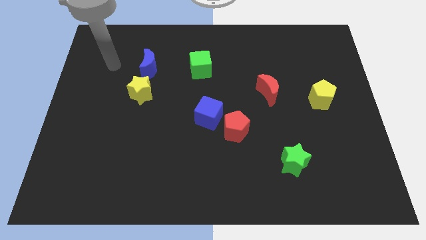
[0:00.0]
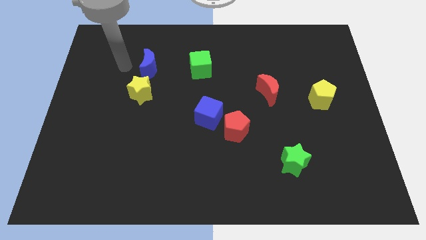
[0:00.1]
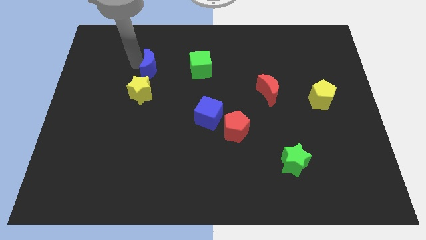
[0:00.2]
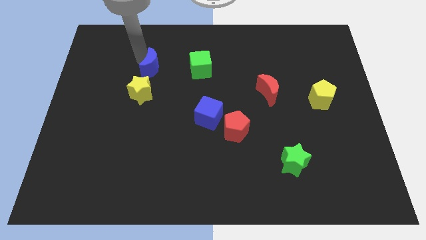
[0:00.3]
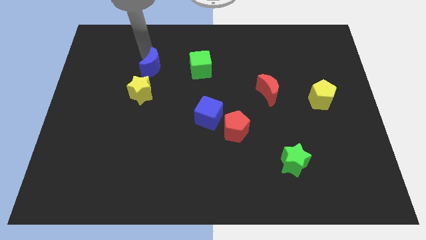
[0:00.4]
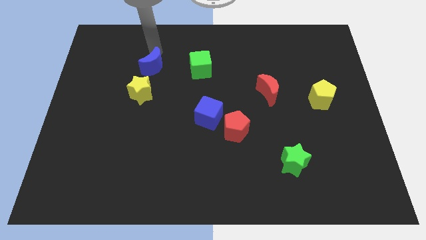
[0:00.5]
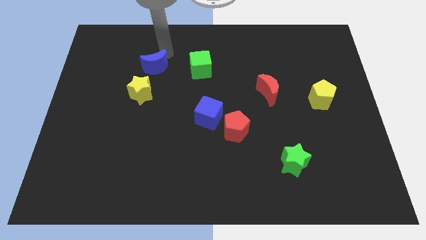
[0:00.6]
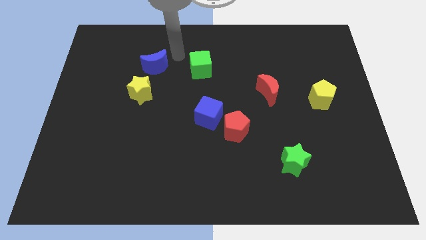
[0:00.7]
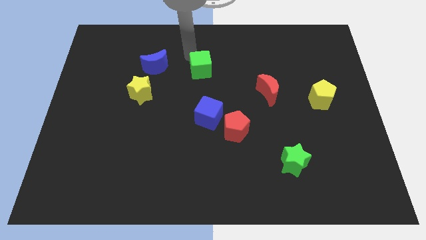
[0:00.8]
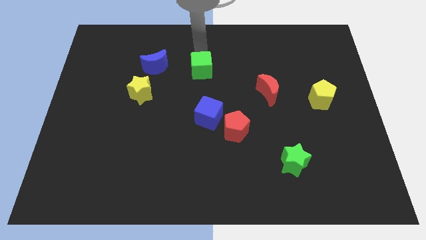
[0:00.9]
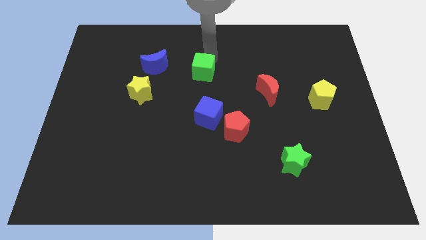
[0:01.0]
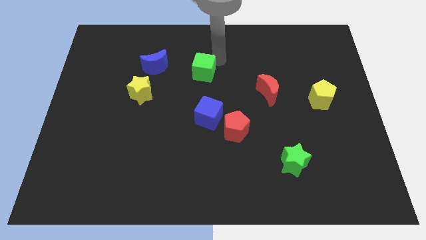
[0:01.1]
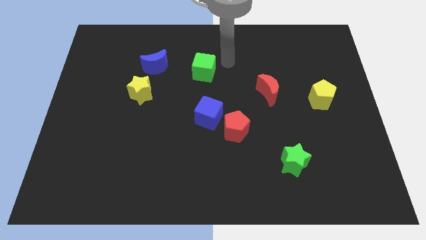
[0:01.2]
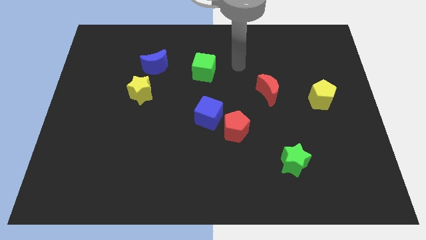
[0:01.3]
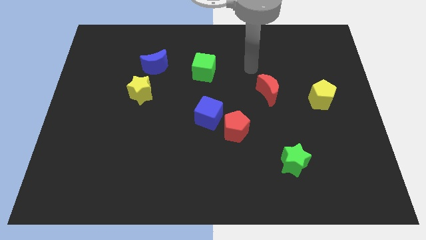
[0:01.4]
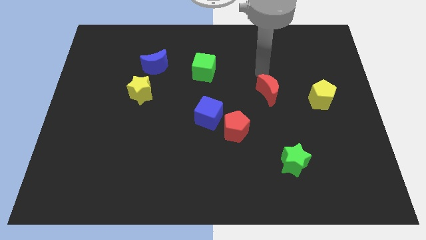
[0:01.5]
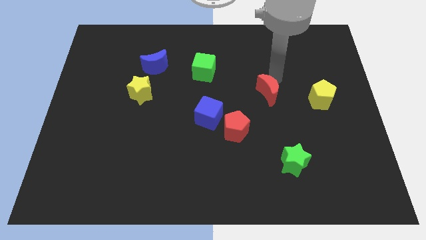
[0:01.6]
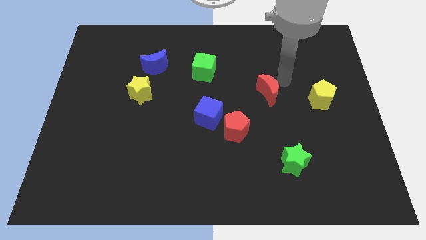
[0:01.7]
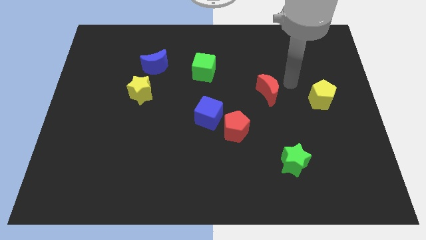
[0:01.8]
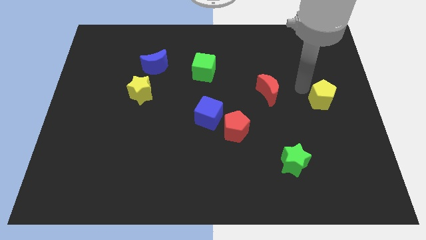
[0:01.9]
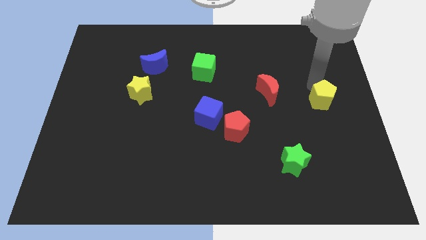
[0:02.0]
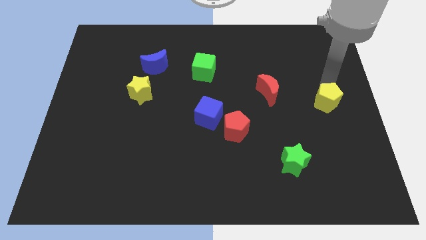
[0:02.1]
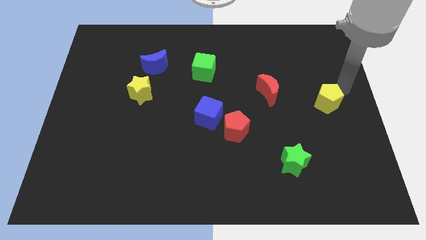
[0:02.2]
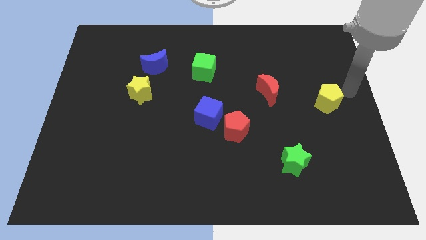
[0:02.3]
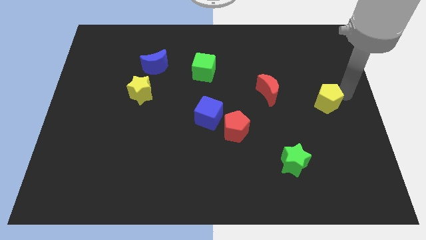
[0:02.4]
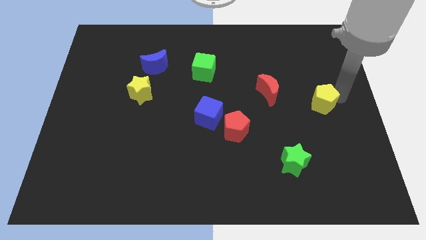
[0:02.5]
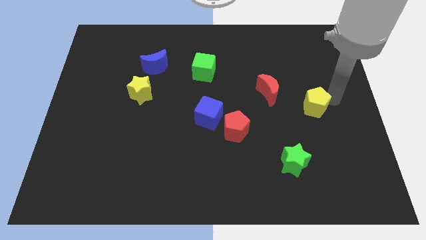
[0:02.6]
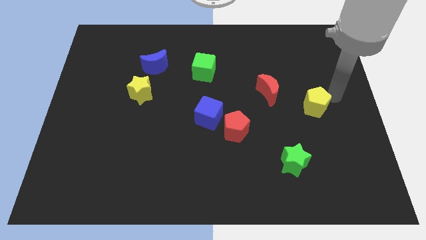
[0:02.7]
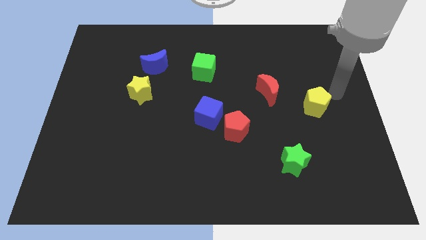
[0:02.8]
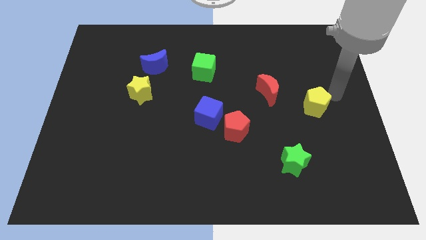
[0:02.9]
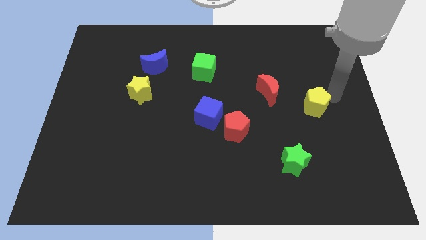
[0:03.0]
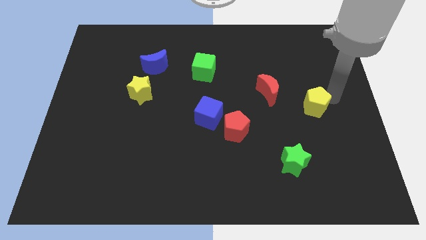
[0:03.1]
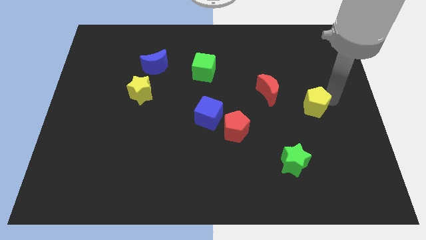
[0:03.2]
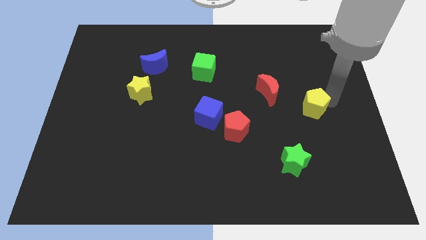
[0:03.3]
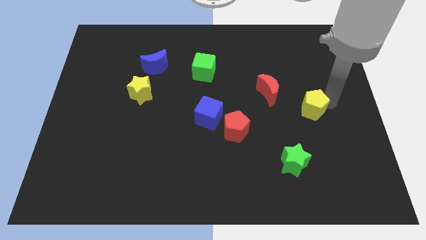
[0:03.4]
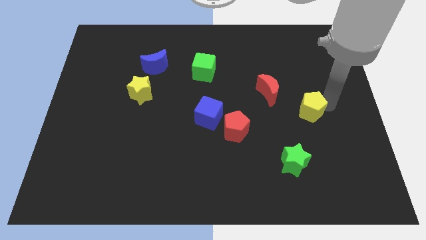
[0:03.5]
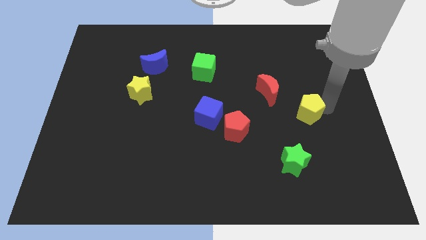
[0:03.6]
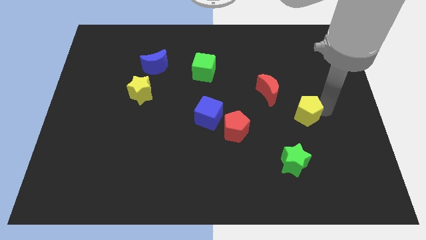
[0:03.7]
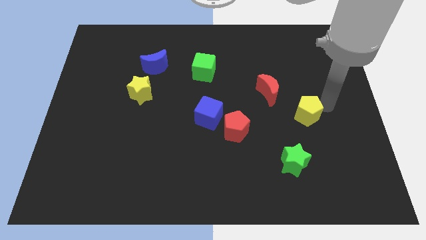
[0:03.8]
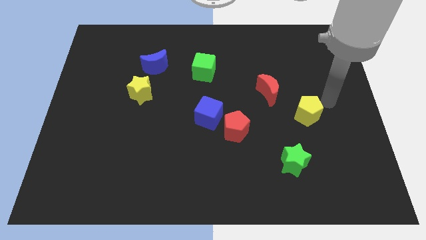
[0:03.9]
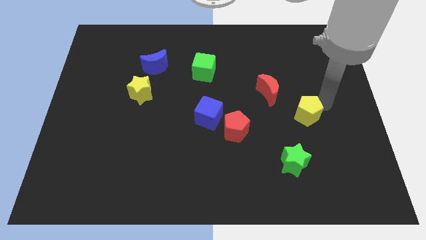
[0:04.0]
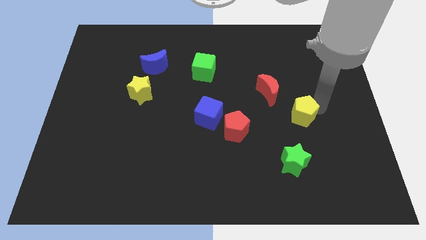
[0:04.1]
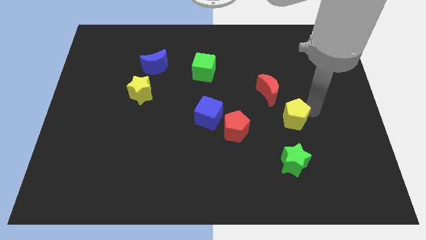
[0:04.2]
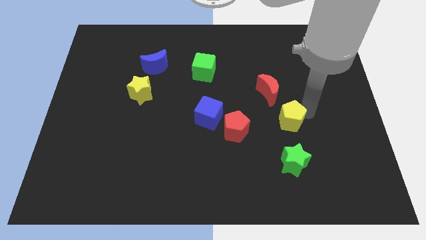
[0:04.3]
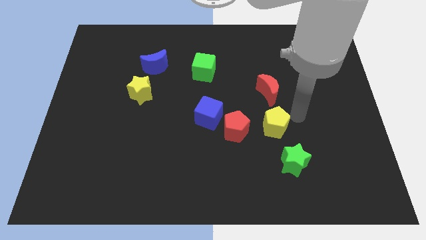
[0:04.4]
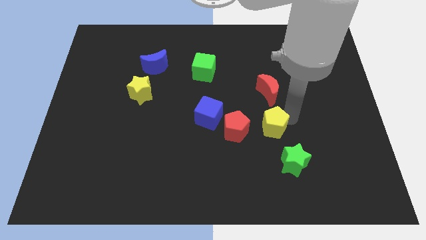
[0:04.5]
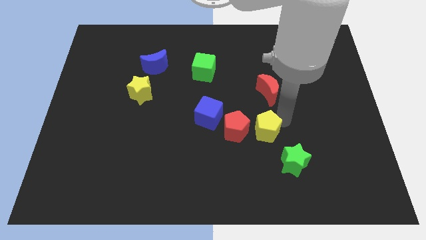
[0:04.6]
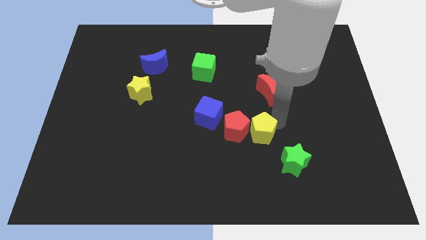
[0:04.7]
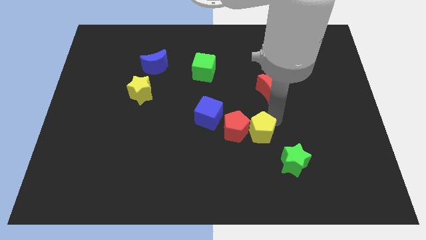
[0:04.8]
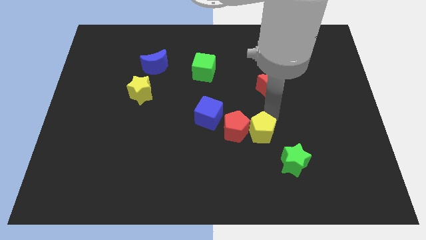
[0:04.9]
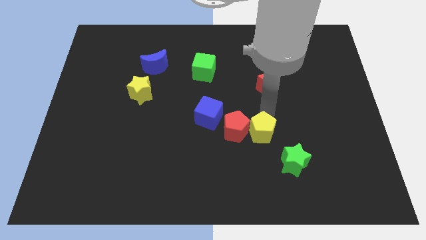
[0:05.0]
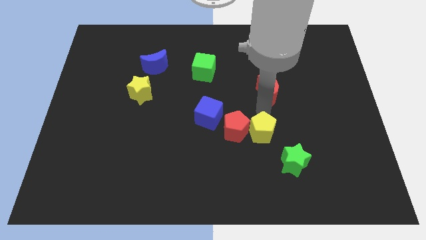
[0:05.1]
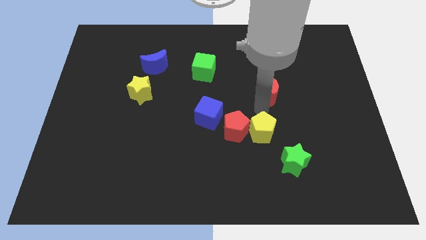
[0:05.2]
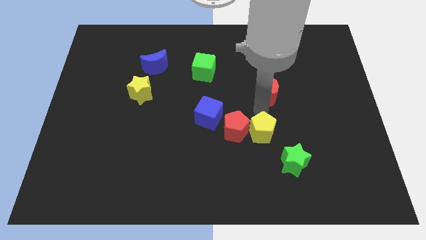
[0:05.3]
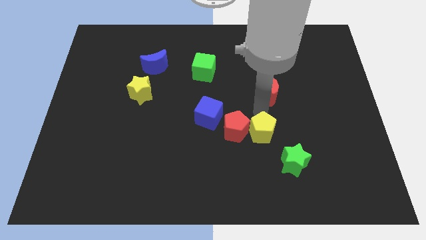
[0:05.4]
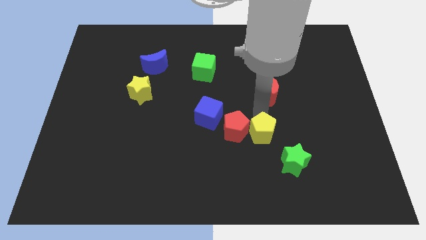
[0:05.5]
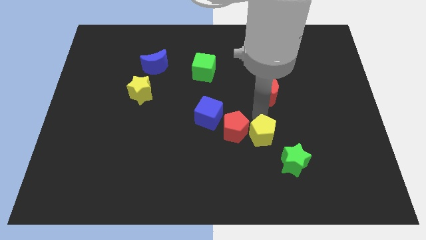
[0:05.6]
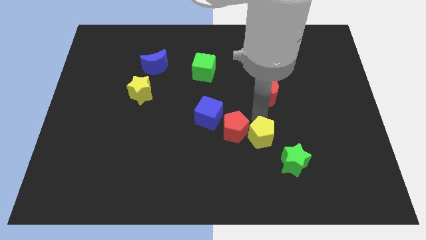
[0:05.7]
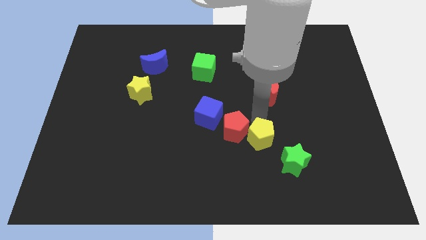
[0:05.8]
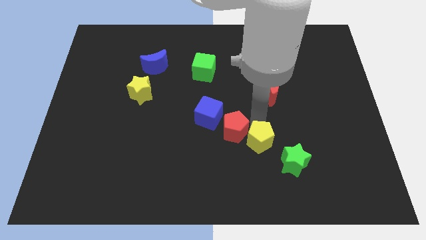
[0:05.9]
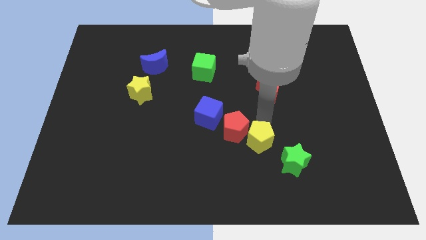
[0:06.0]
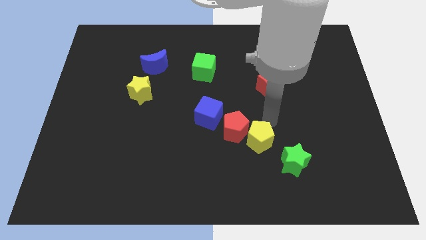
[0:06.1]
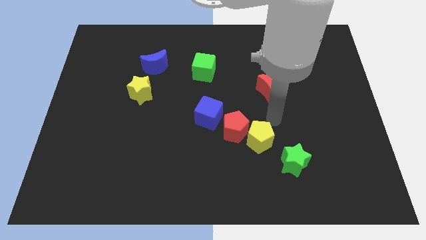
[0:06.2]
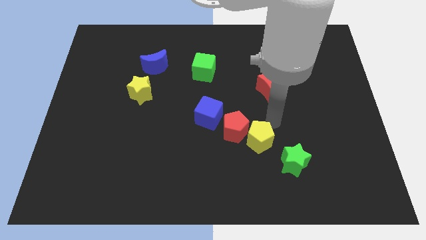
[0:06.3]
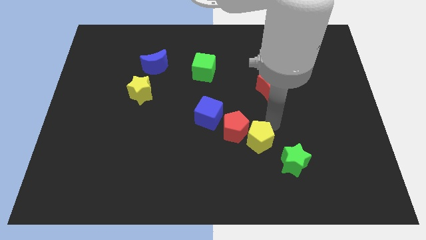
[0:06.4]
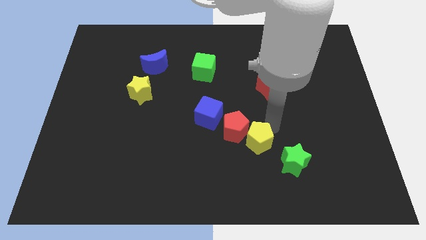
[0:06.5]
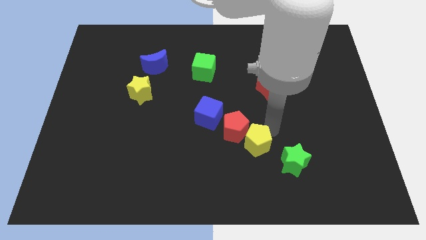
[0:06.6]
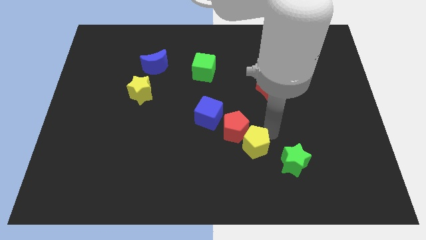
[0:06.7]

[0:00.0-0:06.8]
push the yellow pentagon to the left side of the green star

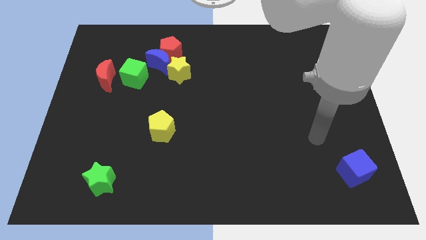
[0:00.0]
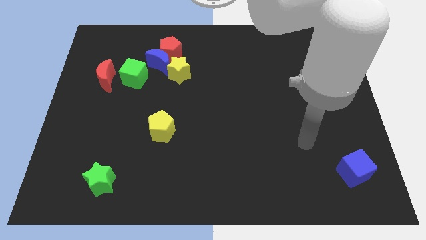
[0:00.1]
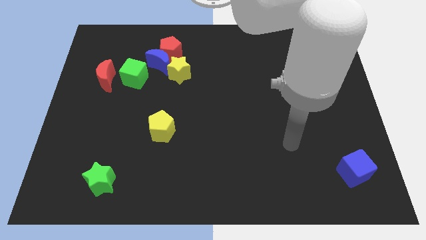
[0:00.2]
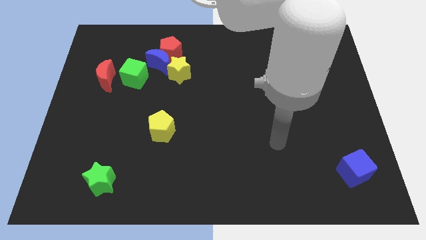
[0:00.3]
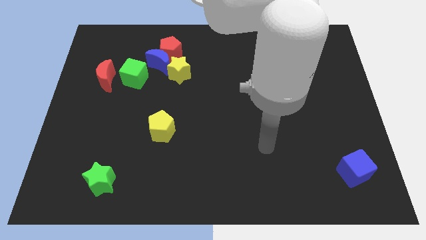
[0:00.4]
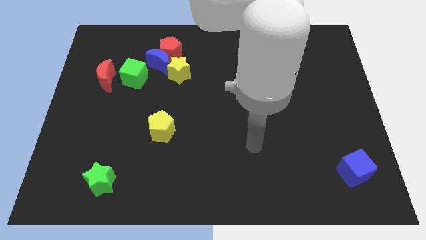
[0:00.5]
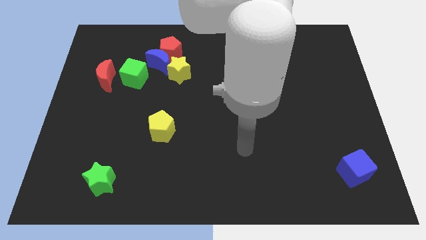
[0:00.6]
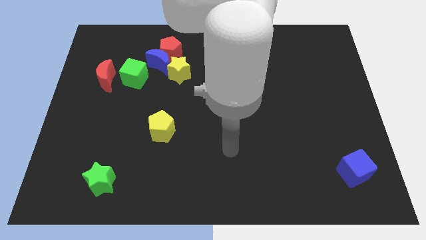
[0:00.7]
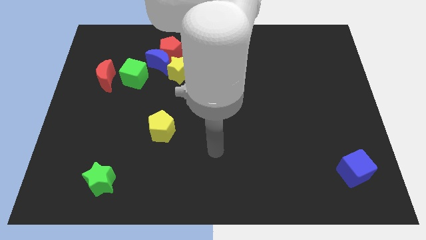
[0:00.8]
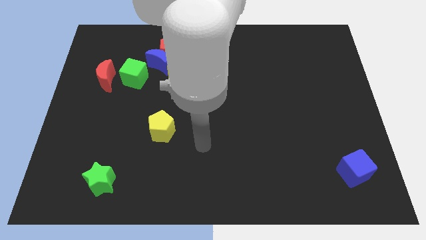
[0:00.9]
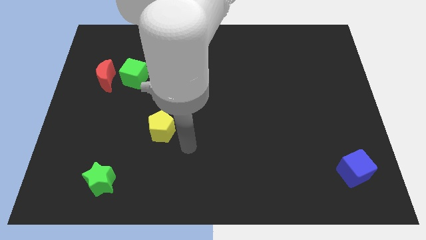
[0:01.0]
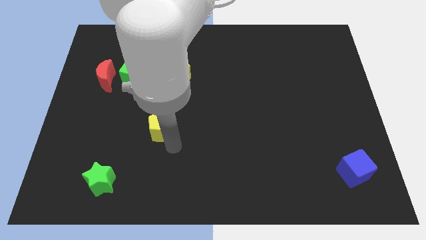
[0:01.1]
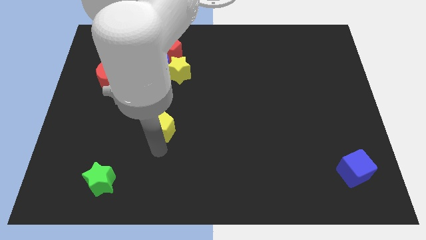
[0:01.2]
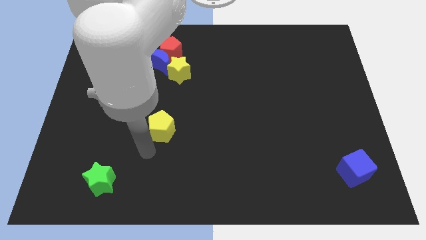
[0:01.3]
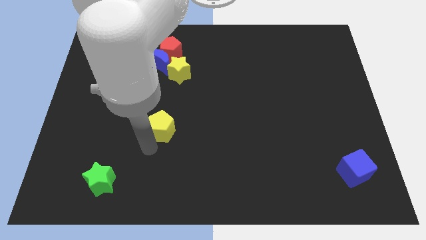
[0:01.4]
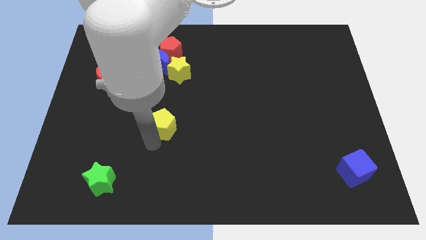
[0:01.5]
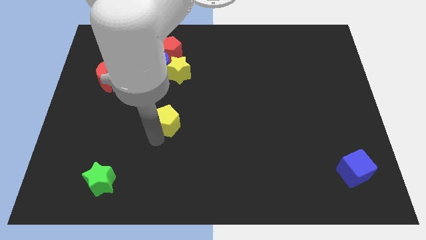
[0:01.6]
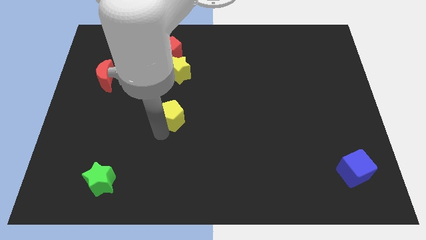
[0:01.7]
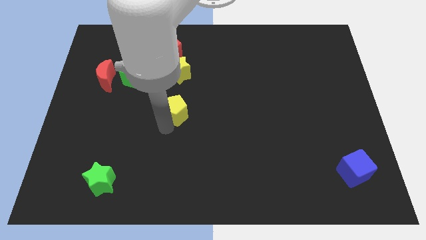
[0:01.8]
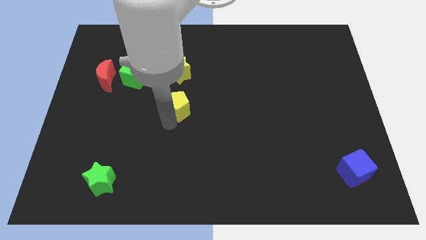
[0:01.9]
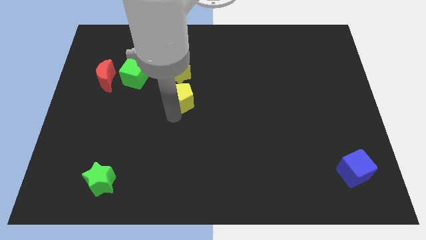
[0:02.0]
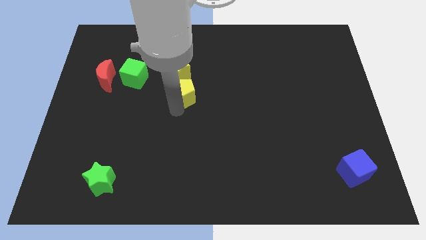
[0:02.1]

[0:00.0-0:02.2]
put the yellow pentagon to the bottom right of the yellow star
